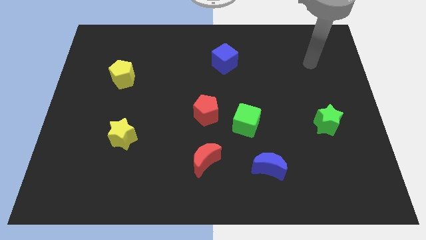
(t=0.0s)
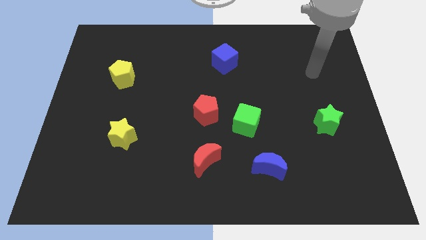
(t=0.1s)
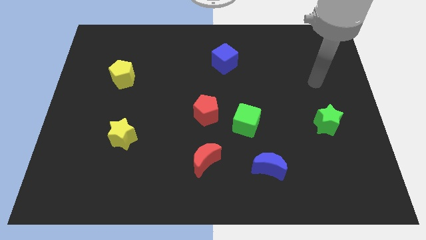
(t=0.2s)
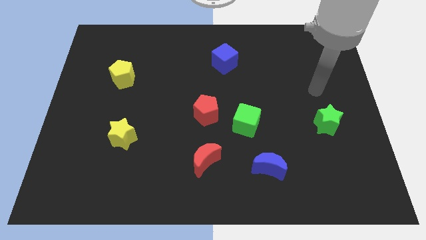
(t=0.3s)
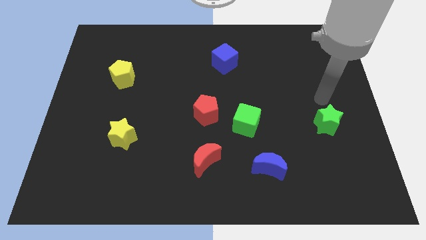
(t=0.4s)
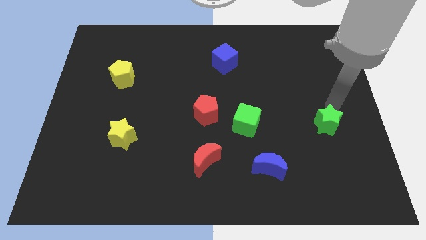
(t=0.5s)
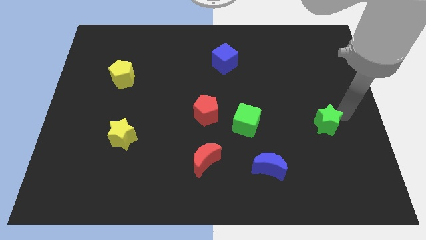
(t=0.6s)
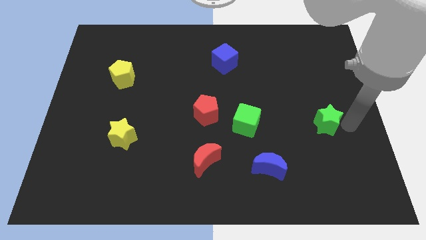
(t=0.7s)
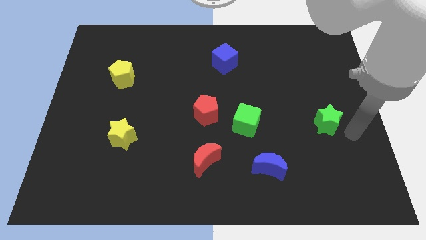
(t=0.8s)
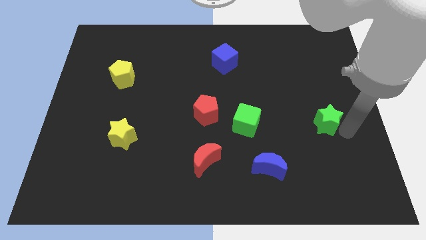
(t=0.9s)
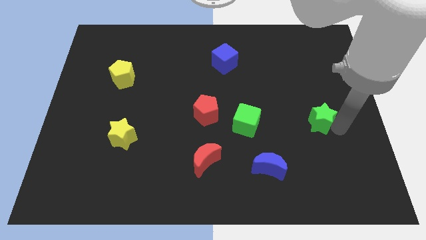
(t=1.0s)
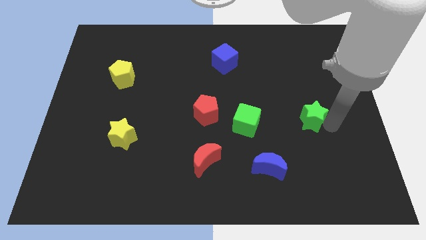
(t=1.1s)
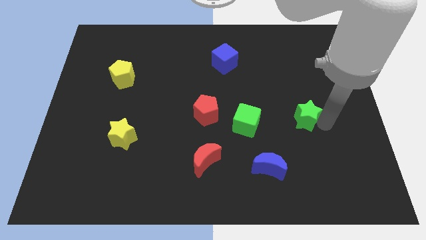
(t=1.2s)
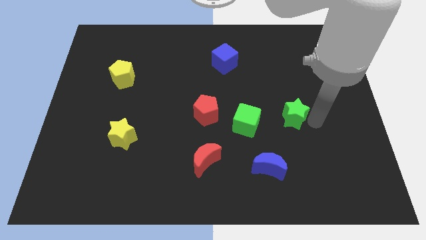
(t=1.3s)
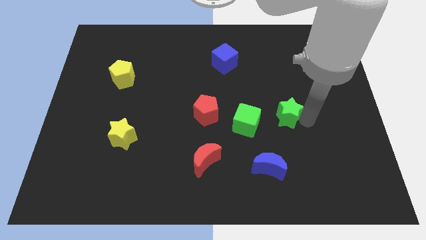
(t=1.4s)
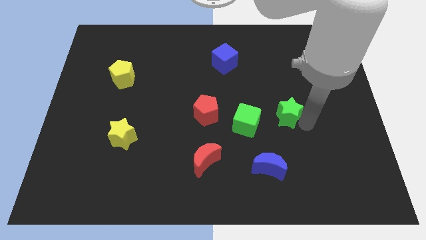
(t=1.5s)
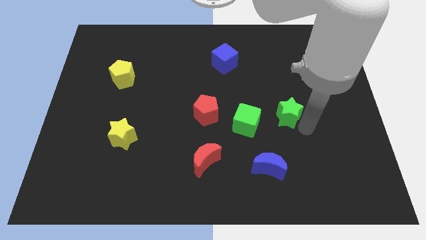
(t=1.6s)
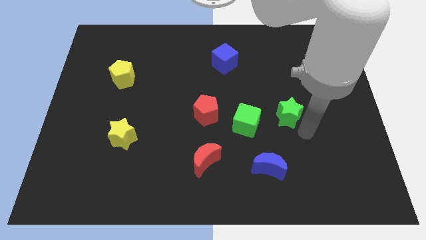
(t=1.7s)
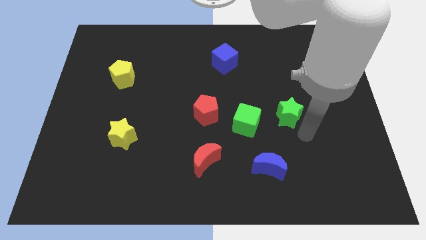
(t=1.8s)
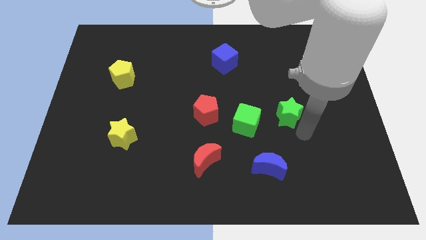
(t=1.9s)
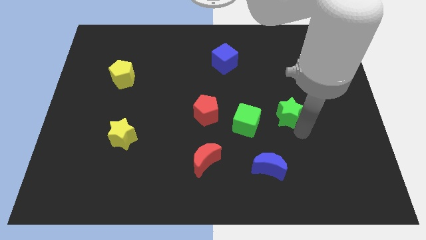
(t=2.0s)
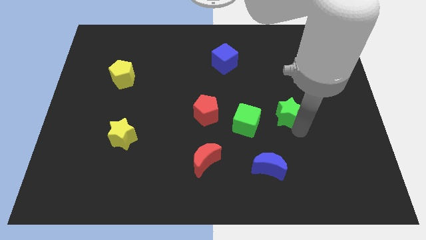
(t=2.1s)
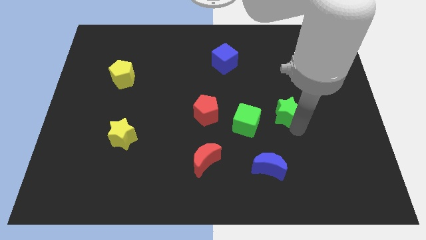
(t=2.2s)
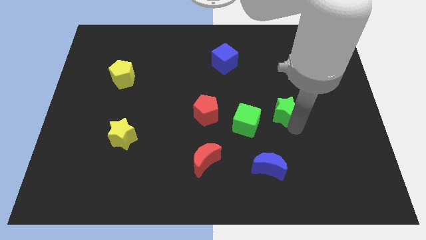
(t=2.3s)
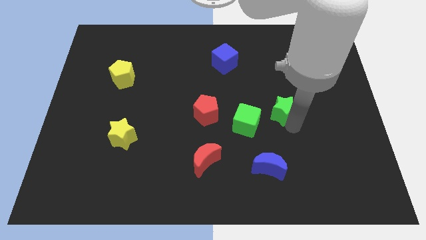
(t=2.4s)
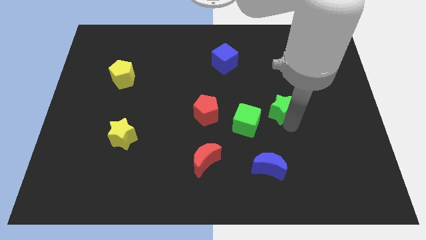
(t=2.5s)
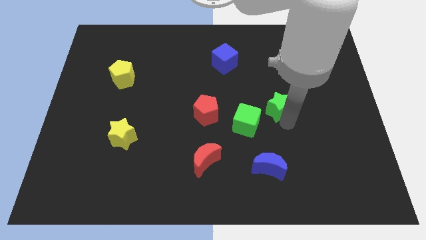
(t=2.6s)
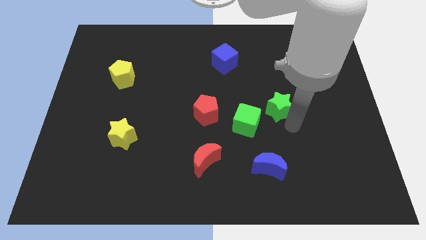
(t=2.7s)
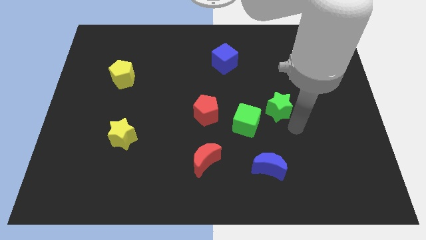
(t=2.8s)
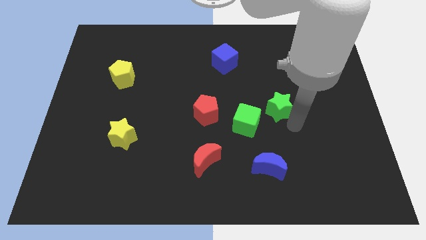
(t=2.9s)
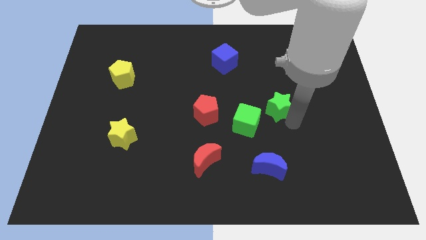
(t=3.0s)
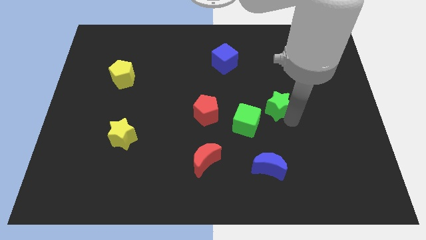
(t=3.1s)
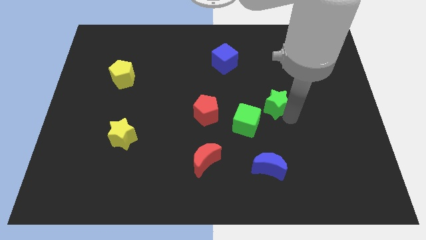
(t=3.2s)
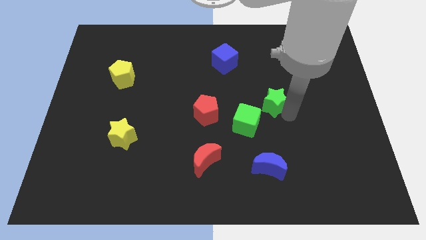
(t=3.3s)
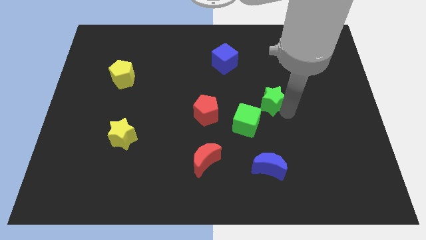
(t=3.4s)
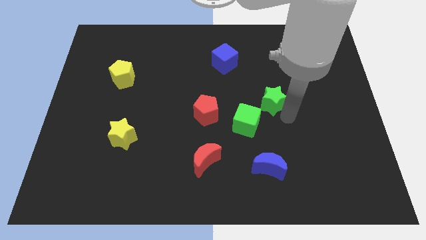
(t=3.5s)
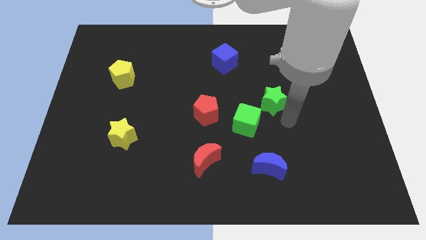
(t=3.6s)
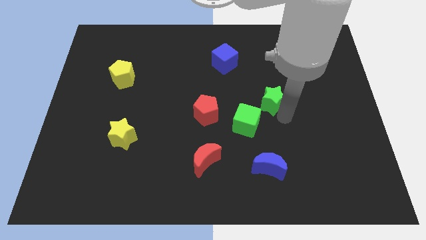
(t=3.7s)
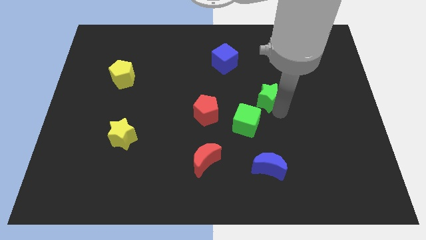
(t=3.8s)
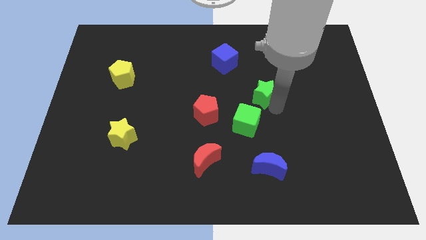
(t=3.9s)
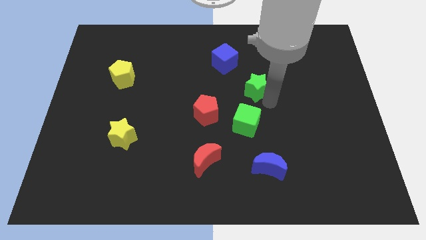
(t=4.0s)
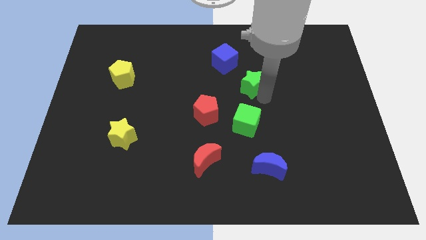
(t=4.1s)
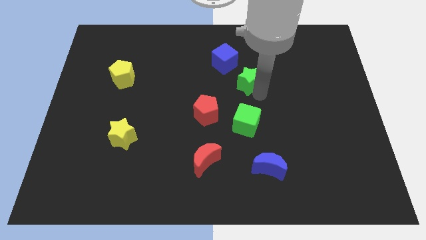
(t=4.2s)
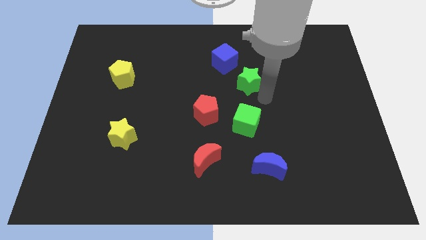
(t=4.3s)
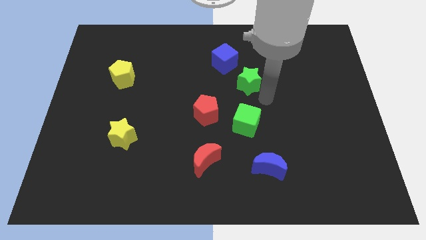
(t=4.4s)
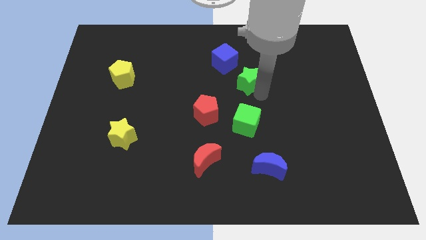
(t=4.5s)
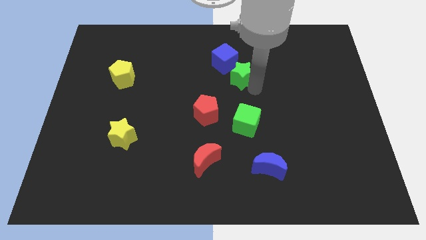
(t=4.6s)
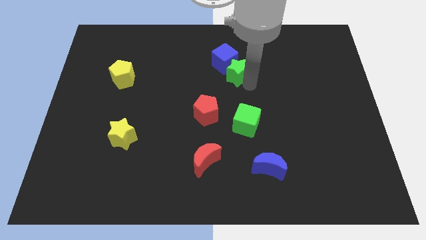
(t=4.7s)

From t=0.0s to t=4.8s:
put the green star close to the blue cube

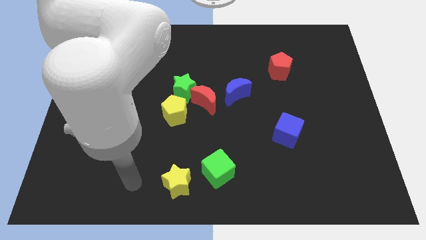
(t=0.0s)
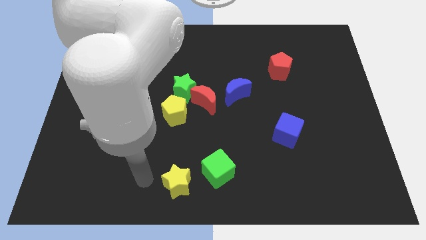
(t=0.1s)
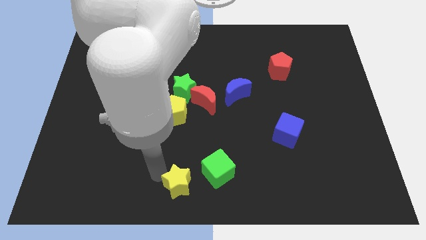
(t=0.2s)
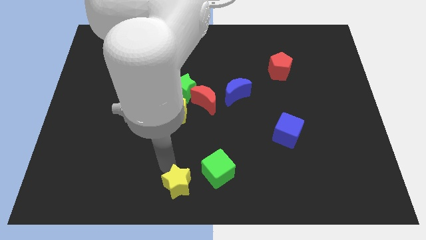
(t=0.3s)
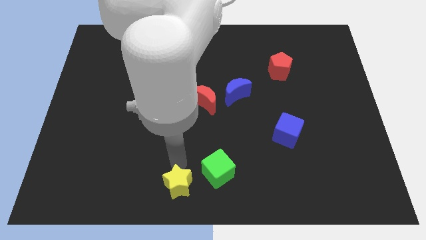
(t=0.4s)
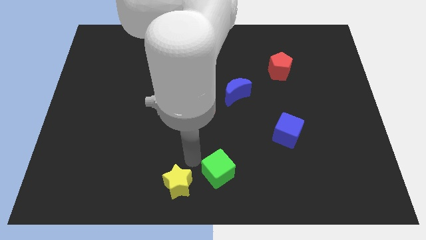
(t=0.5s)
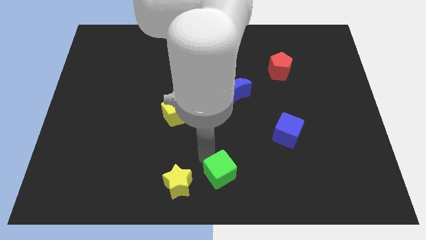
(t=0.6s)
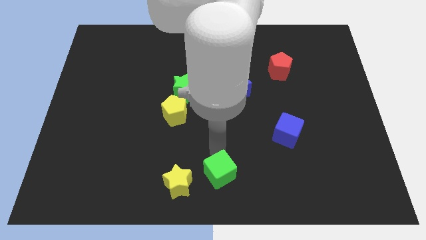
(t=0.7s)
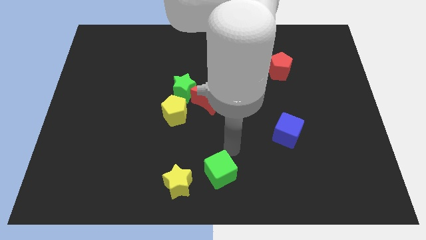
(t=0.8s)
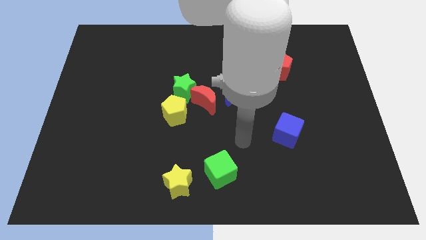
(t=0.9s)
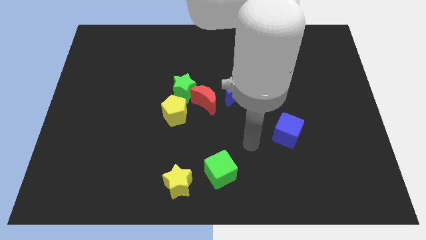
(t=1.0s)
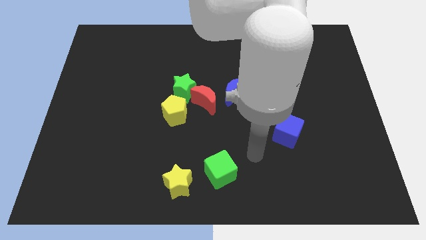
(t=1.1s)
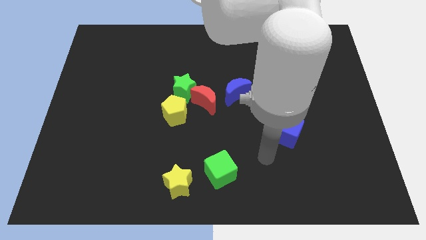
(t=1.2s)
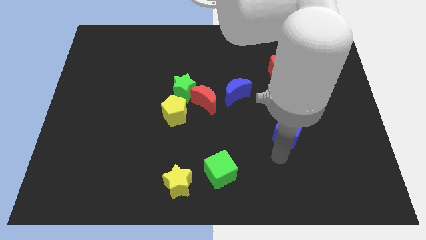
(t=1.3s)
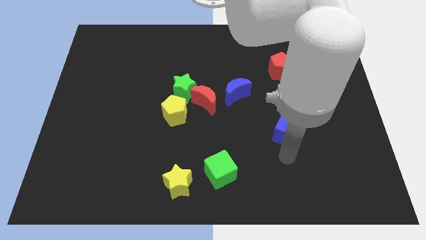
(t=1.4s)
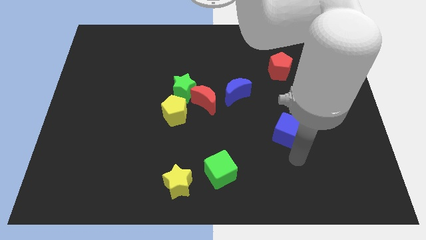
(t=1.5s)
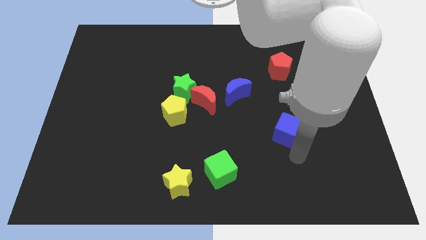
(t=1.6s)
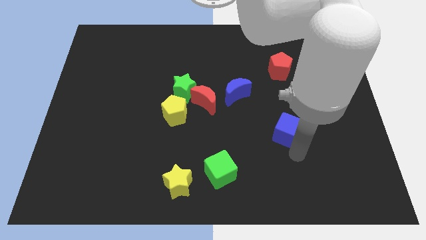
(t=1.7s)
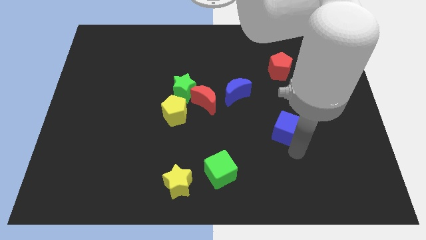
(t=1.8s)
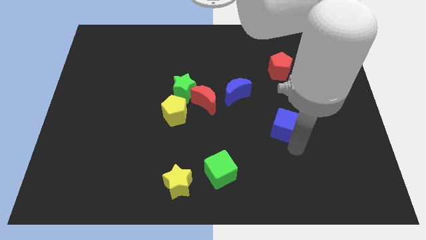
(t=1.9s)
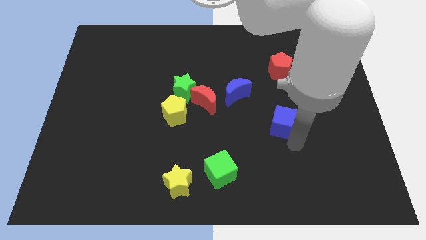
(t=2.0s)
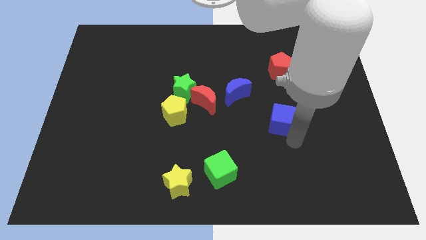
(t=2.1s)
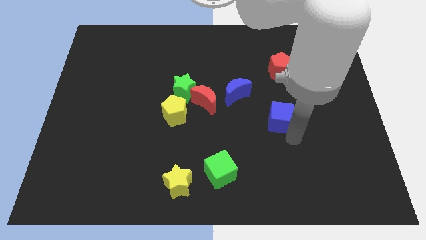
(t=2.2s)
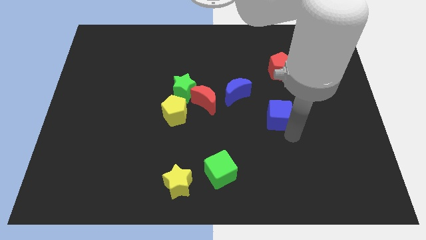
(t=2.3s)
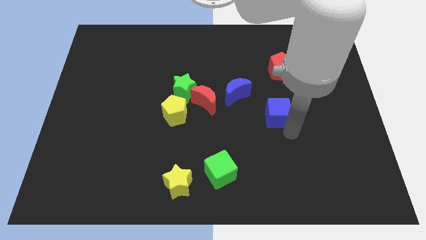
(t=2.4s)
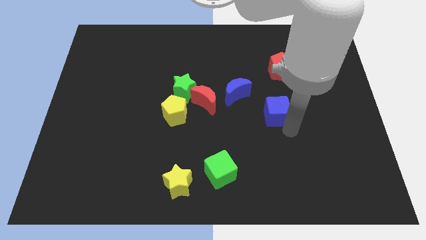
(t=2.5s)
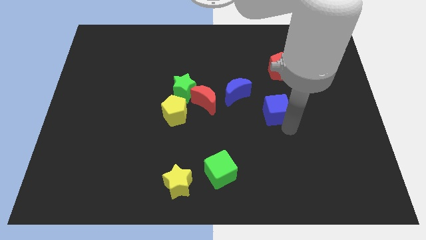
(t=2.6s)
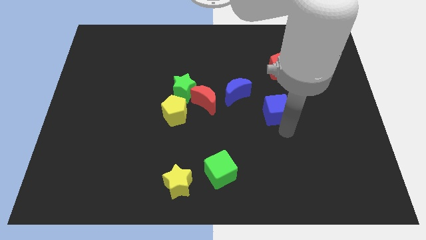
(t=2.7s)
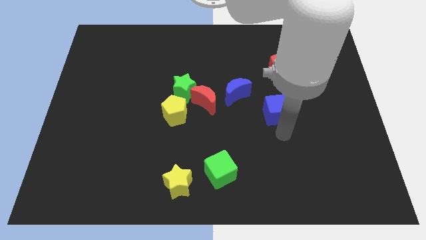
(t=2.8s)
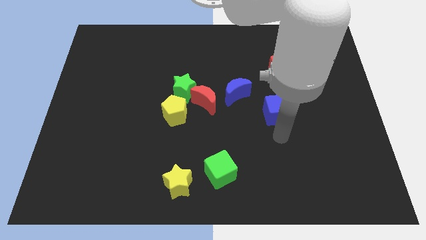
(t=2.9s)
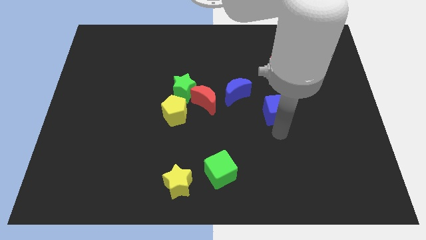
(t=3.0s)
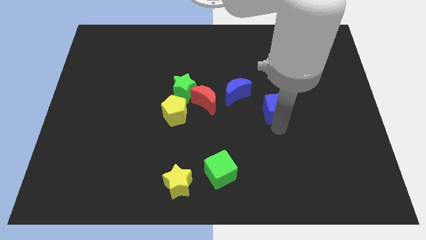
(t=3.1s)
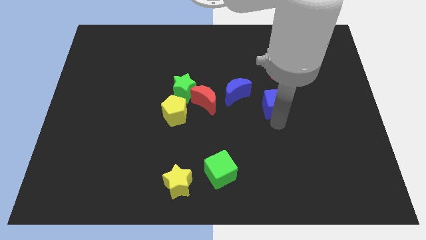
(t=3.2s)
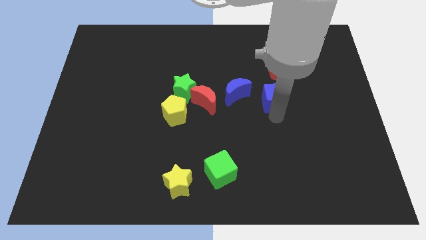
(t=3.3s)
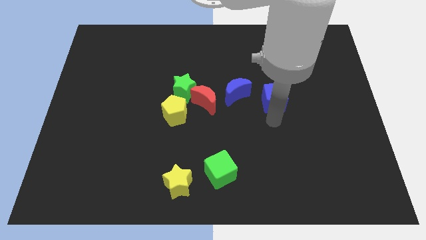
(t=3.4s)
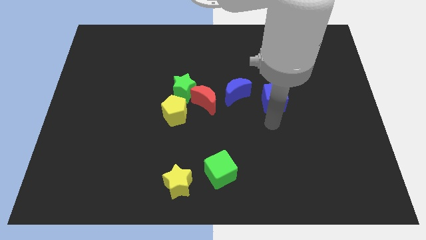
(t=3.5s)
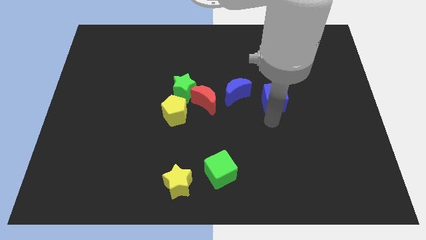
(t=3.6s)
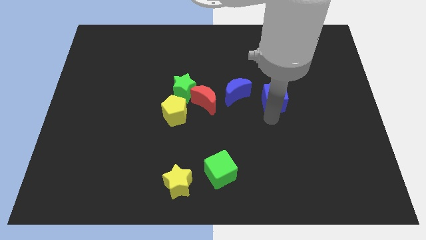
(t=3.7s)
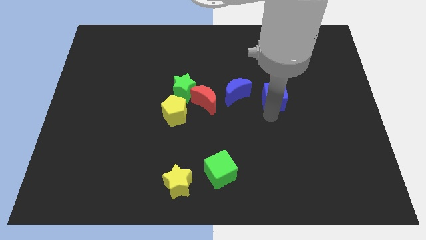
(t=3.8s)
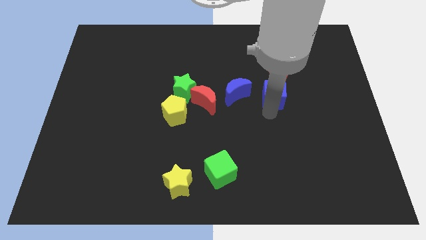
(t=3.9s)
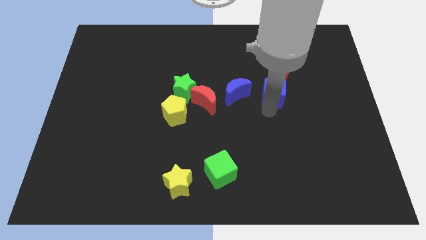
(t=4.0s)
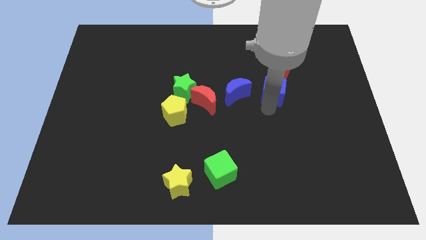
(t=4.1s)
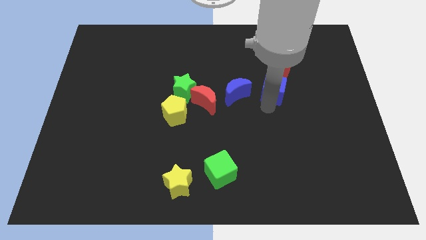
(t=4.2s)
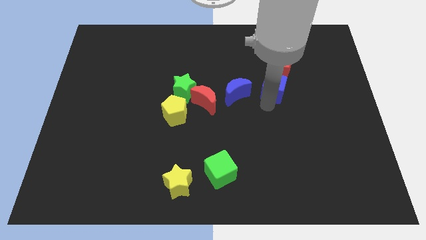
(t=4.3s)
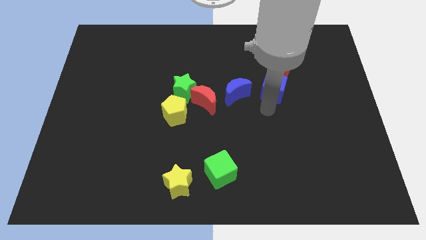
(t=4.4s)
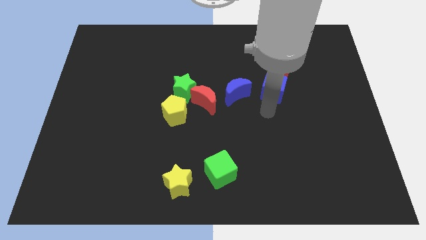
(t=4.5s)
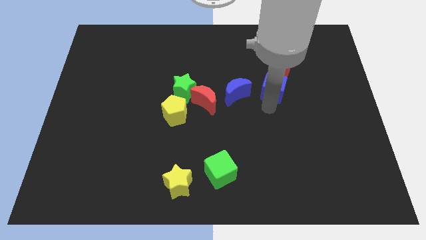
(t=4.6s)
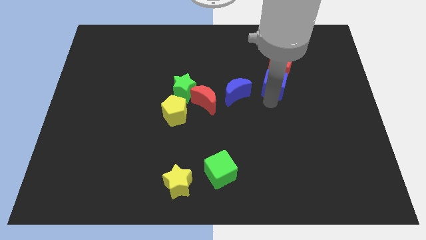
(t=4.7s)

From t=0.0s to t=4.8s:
put the blue cube to the red pentagon
